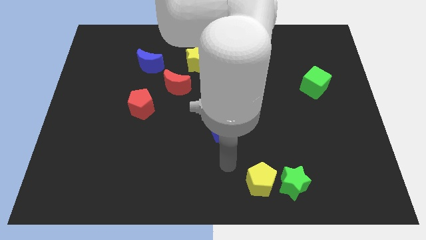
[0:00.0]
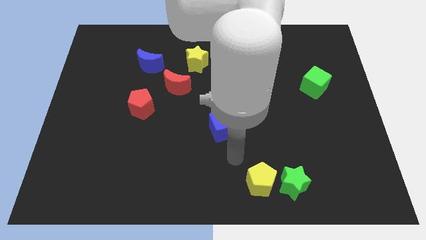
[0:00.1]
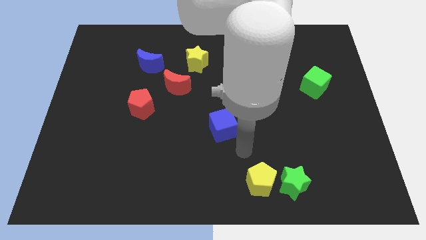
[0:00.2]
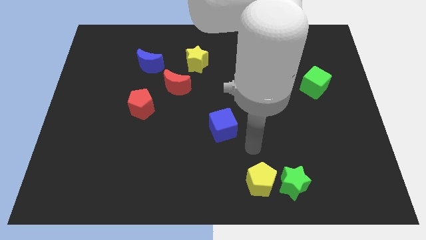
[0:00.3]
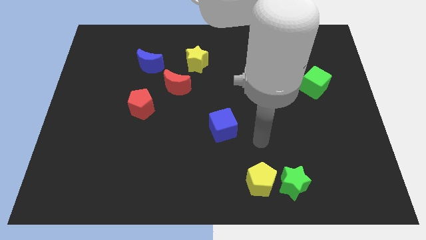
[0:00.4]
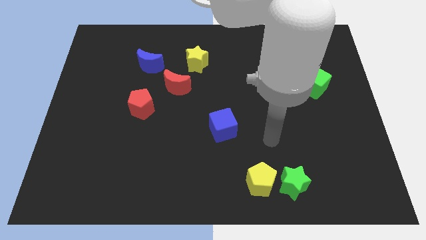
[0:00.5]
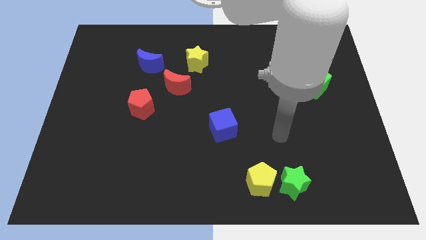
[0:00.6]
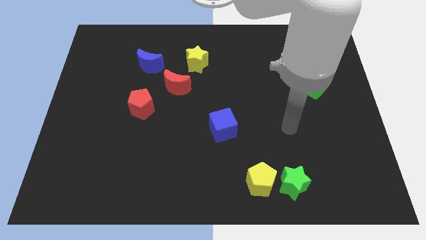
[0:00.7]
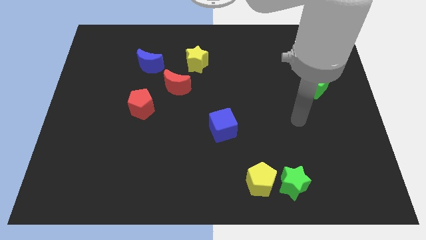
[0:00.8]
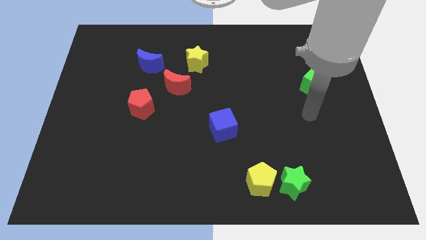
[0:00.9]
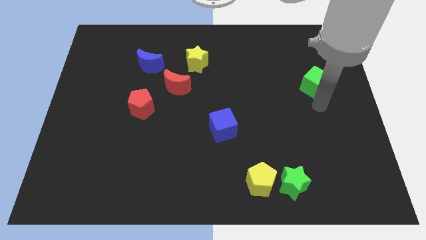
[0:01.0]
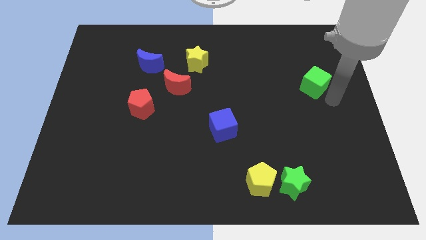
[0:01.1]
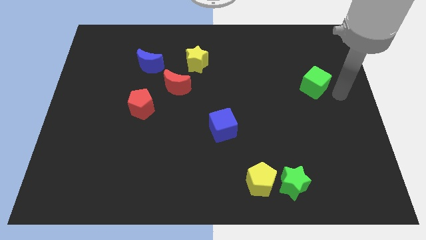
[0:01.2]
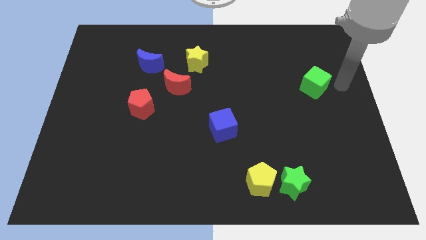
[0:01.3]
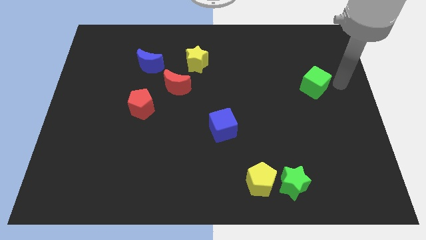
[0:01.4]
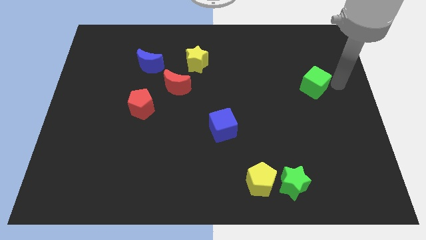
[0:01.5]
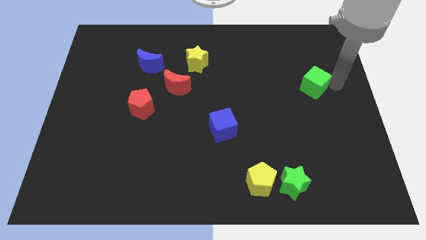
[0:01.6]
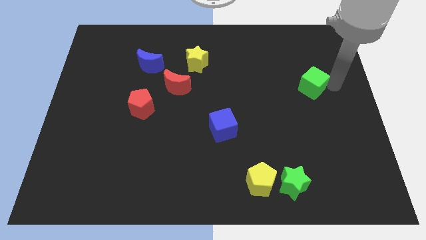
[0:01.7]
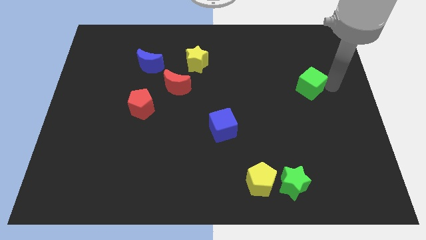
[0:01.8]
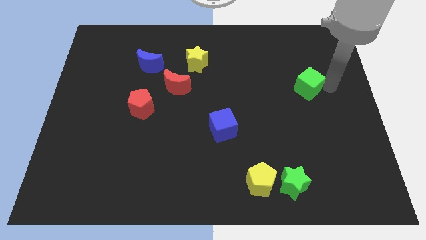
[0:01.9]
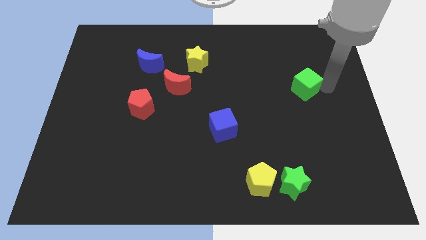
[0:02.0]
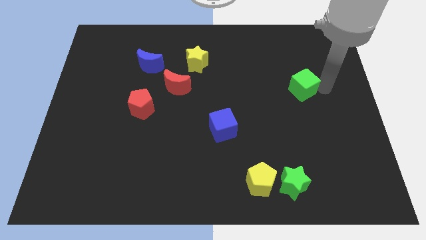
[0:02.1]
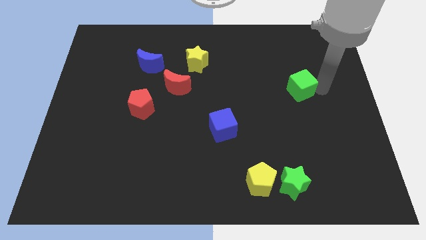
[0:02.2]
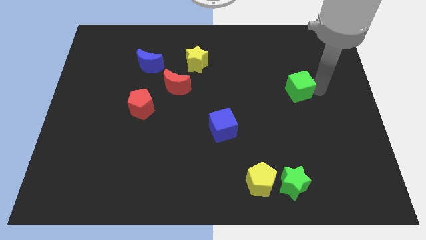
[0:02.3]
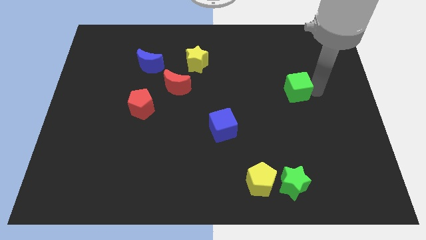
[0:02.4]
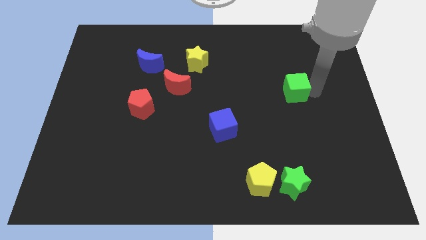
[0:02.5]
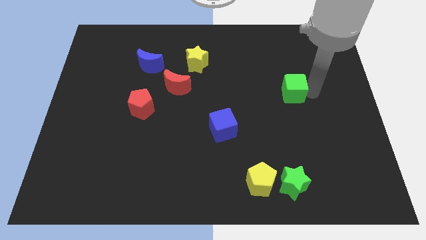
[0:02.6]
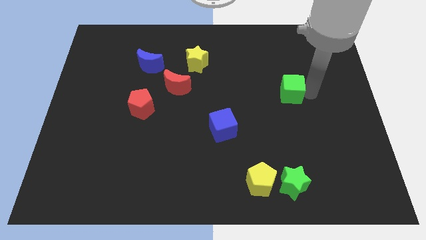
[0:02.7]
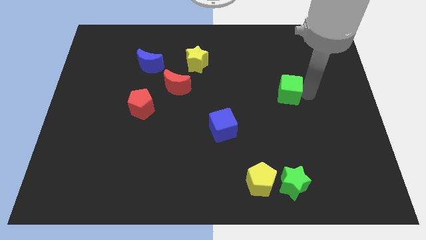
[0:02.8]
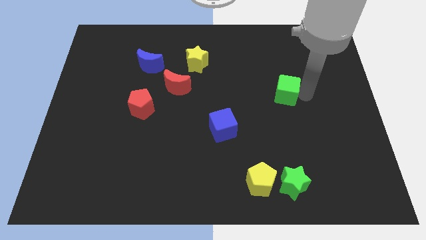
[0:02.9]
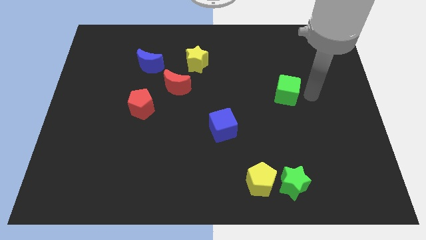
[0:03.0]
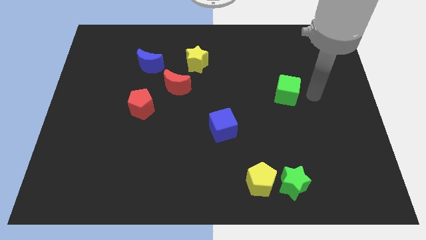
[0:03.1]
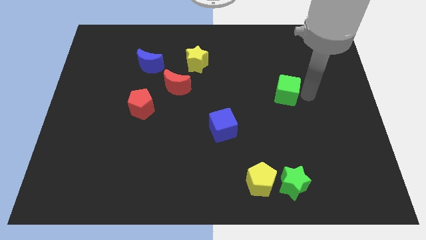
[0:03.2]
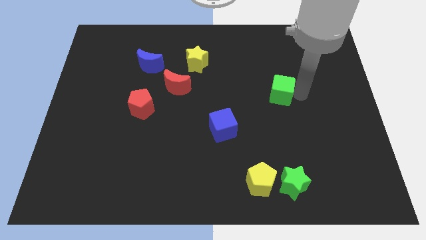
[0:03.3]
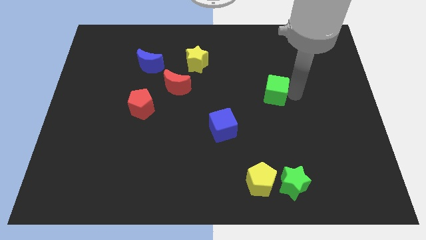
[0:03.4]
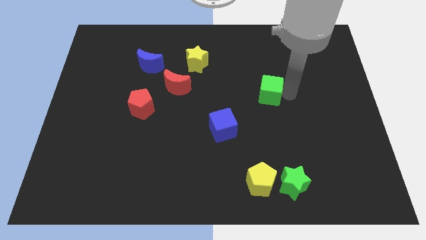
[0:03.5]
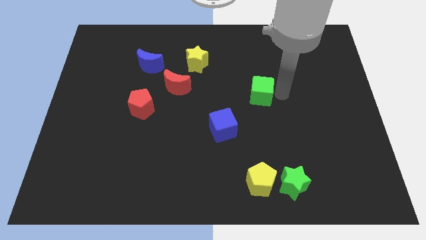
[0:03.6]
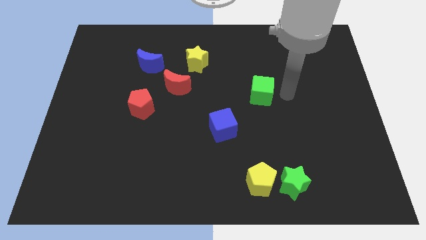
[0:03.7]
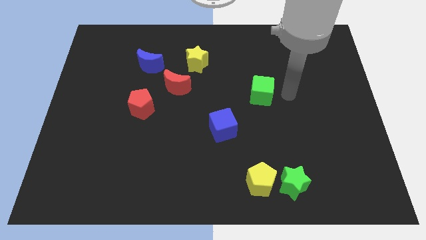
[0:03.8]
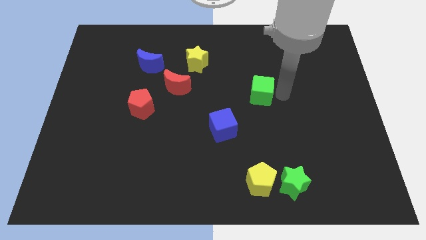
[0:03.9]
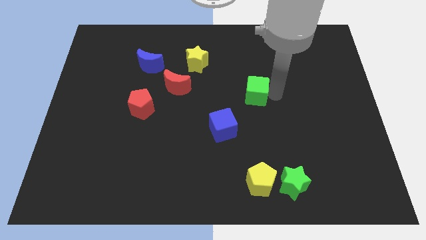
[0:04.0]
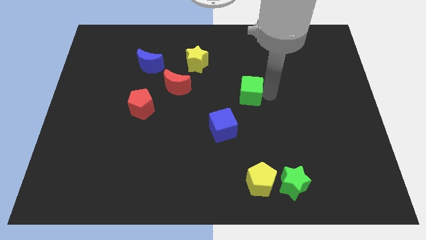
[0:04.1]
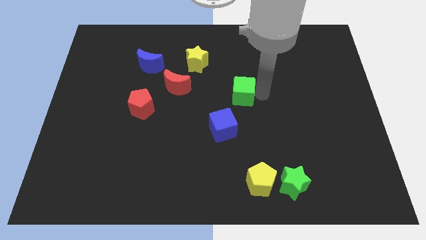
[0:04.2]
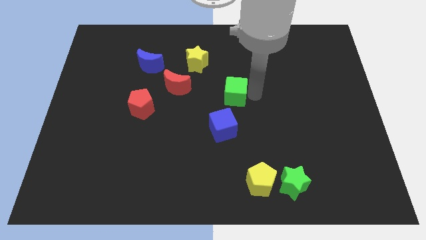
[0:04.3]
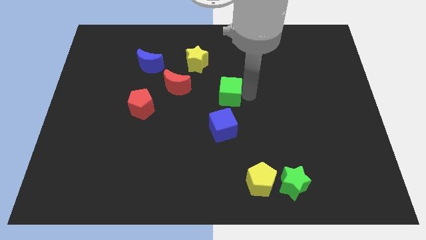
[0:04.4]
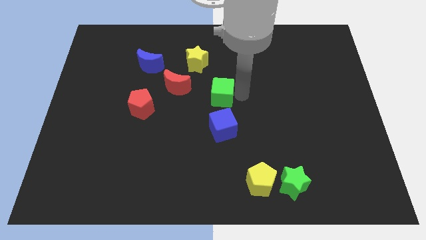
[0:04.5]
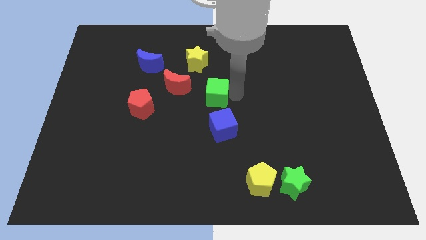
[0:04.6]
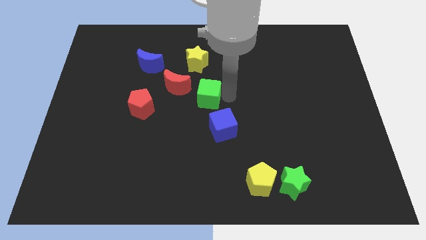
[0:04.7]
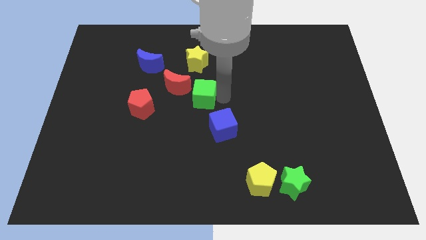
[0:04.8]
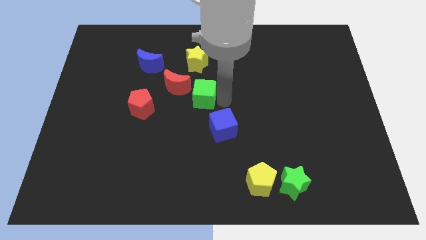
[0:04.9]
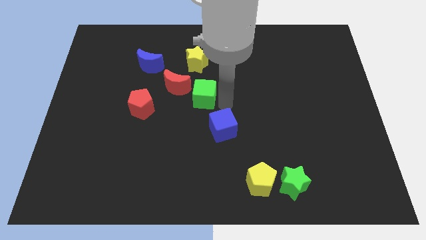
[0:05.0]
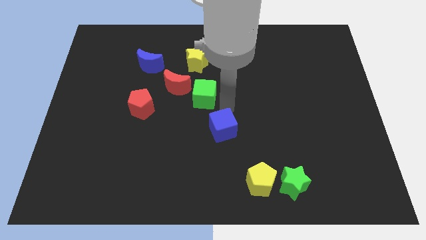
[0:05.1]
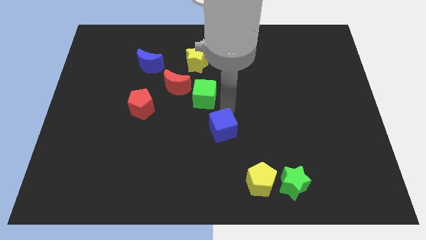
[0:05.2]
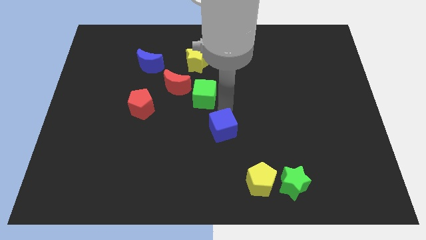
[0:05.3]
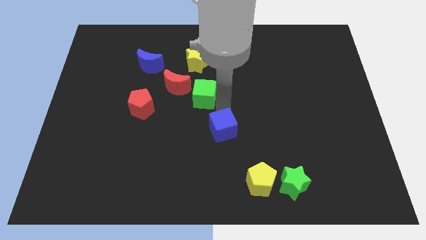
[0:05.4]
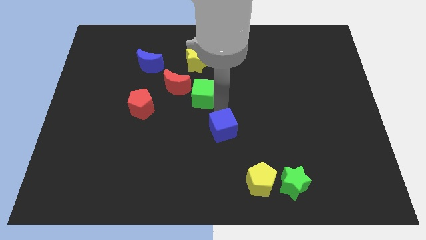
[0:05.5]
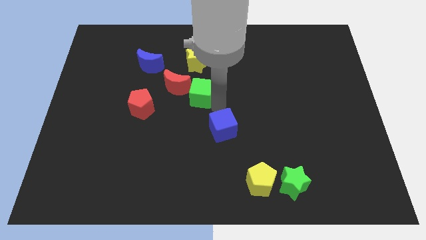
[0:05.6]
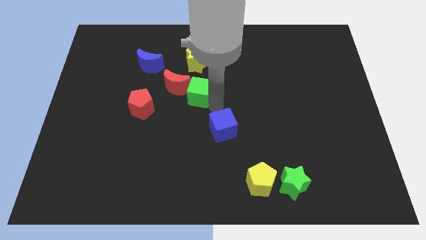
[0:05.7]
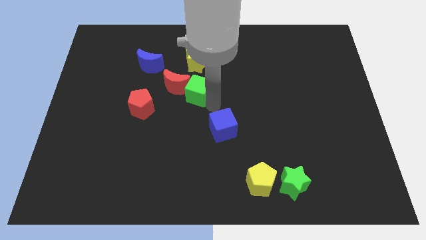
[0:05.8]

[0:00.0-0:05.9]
slide the green cube towards the red moon

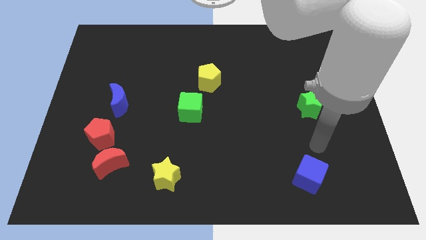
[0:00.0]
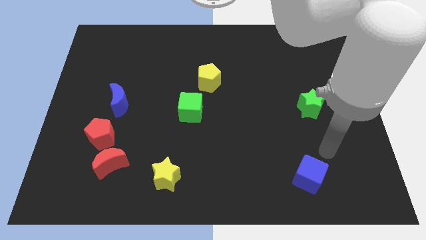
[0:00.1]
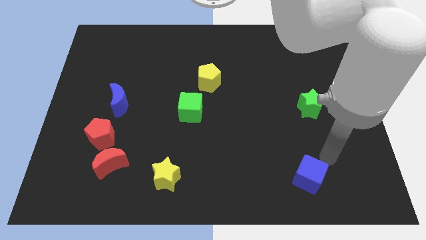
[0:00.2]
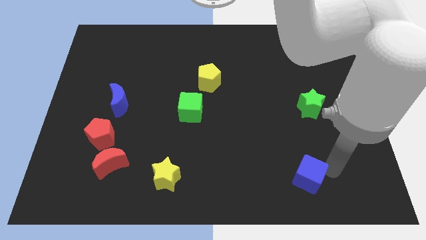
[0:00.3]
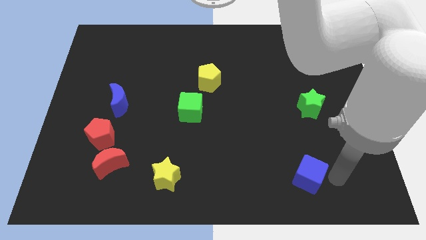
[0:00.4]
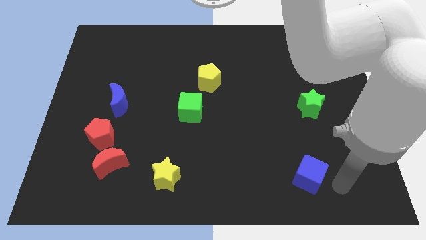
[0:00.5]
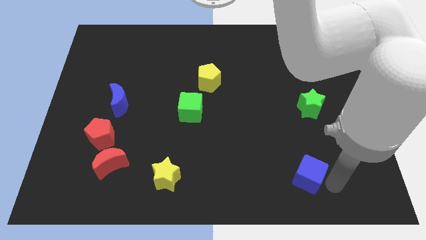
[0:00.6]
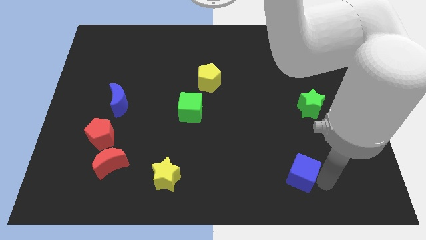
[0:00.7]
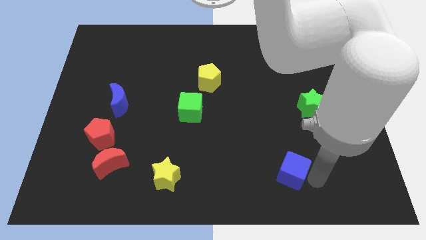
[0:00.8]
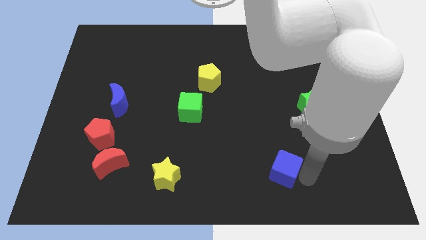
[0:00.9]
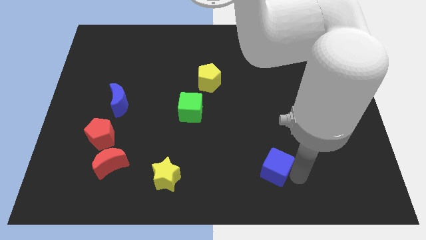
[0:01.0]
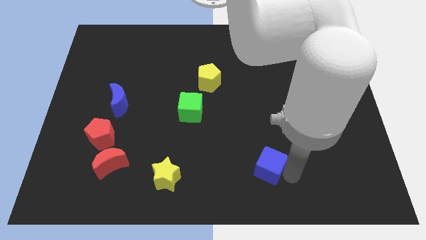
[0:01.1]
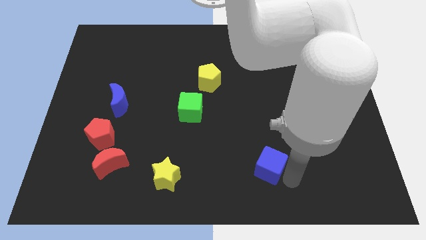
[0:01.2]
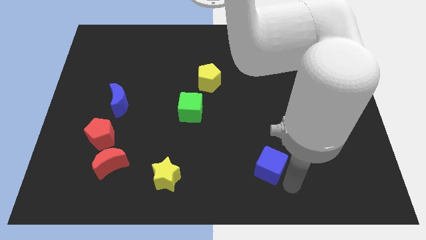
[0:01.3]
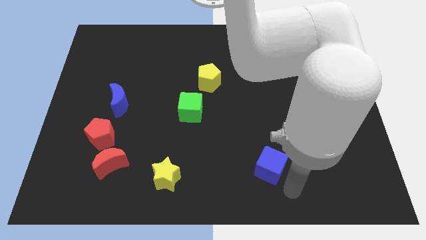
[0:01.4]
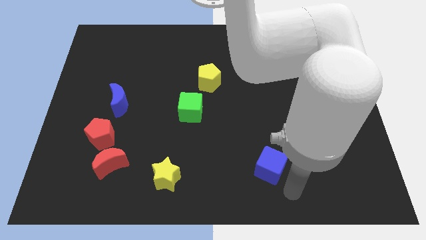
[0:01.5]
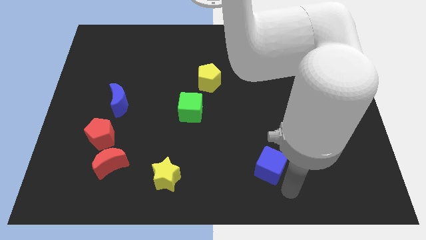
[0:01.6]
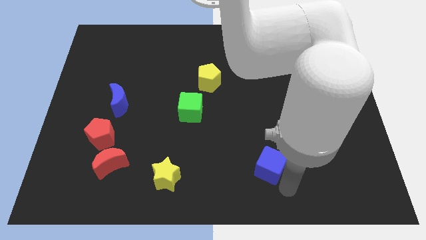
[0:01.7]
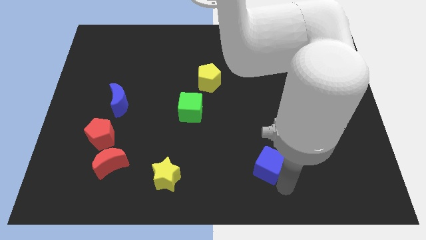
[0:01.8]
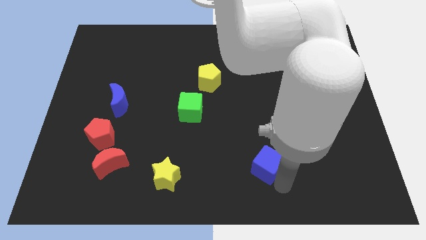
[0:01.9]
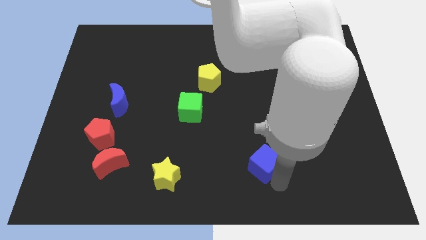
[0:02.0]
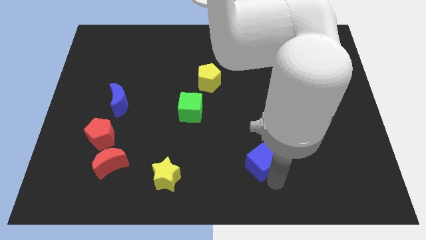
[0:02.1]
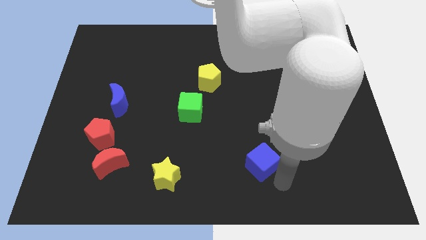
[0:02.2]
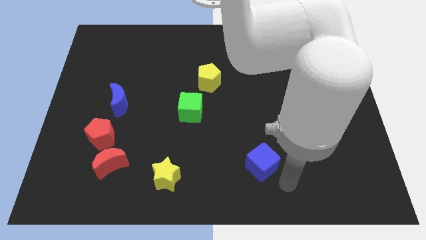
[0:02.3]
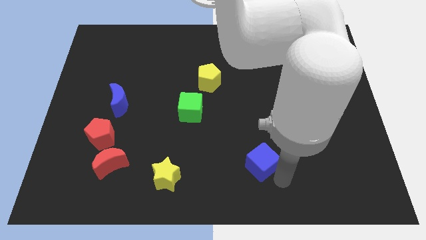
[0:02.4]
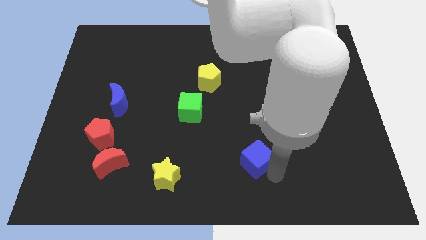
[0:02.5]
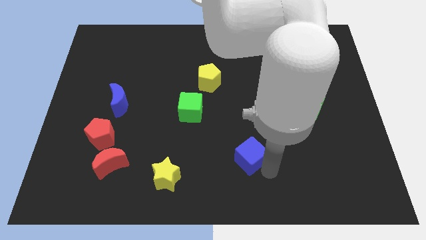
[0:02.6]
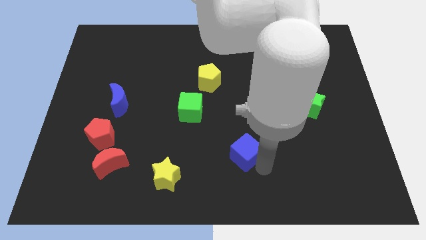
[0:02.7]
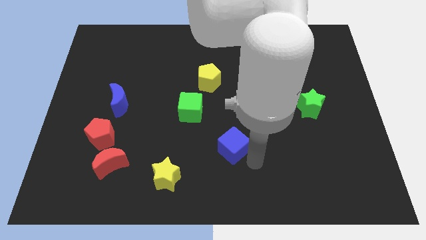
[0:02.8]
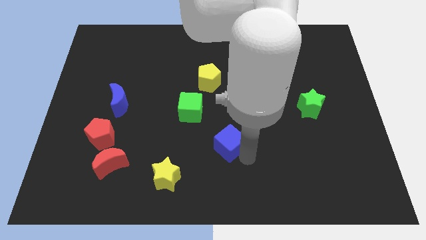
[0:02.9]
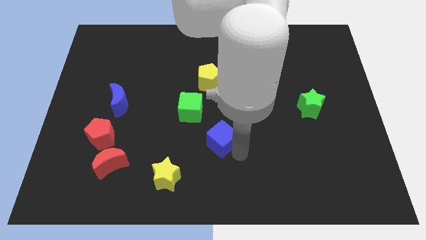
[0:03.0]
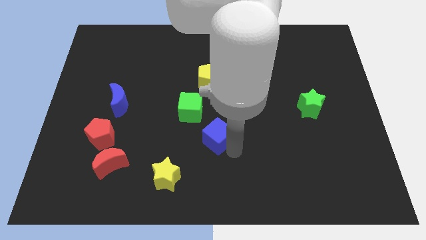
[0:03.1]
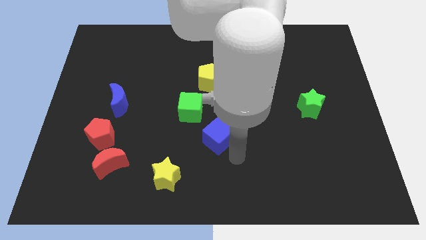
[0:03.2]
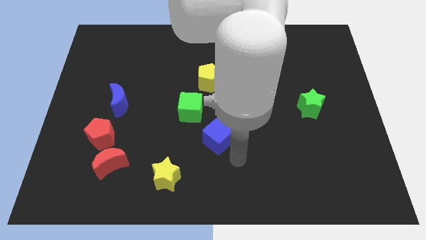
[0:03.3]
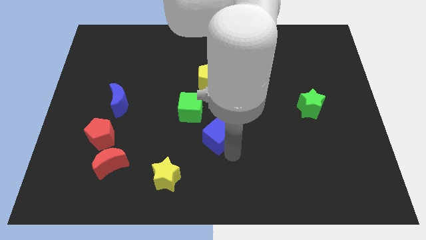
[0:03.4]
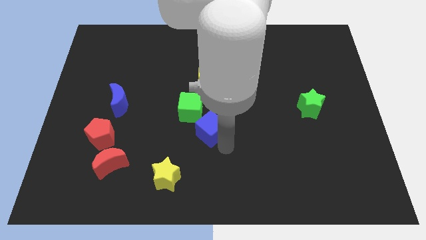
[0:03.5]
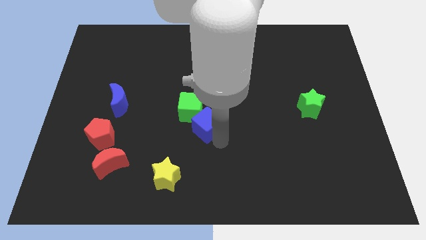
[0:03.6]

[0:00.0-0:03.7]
slide the blue cube to the green cube
